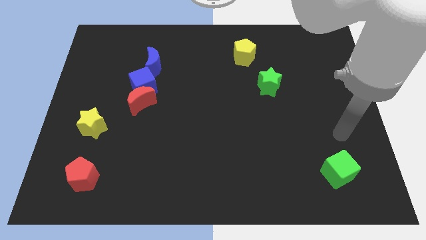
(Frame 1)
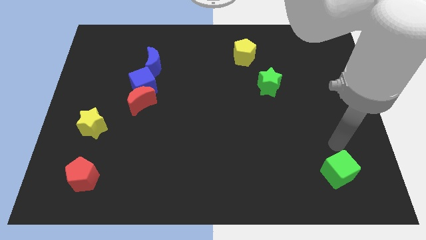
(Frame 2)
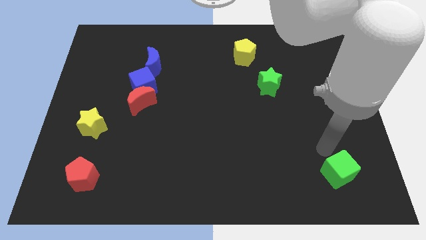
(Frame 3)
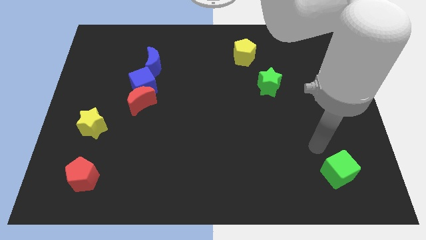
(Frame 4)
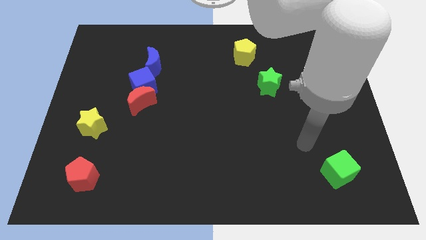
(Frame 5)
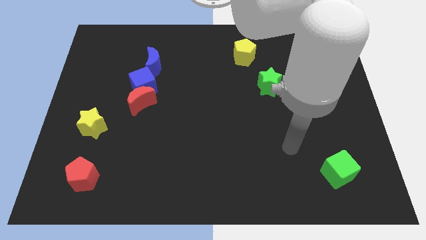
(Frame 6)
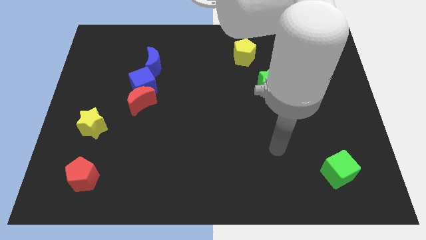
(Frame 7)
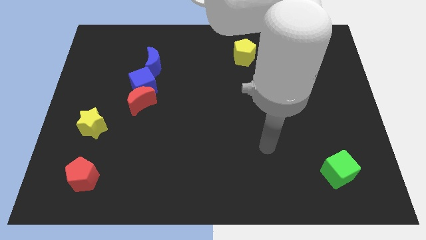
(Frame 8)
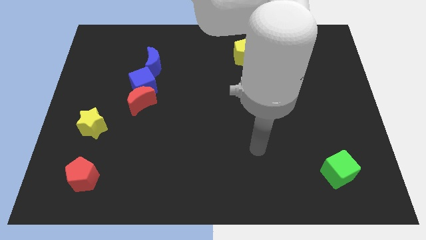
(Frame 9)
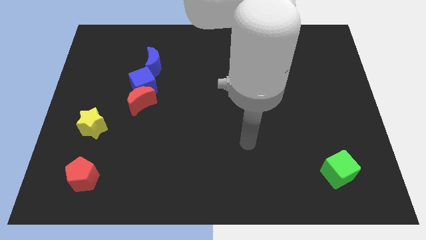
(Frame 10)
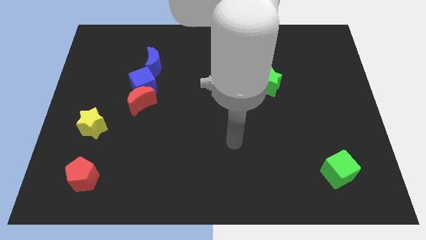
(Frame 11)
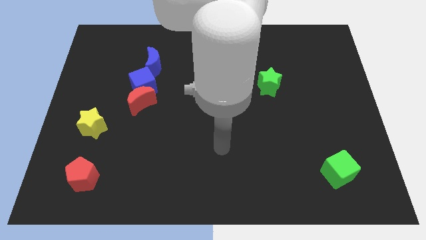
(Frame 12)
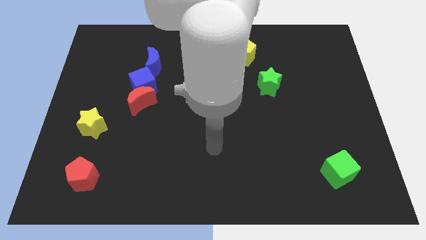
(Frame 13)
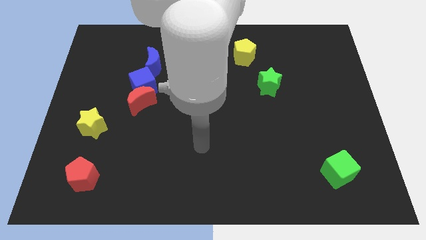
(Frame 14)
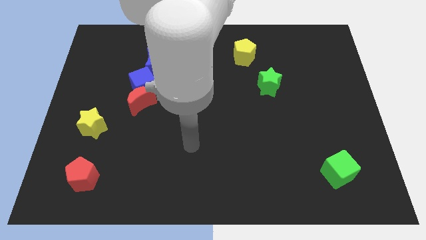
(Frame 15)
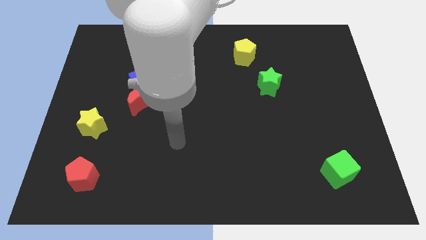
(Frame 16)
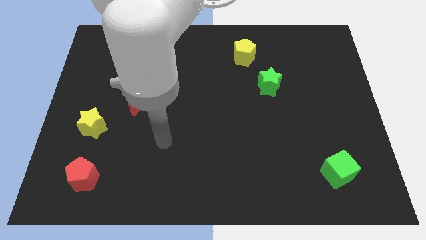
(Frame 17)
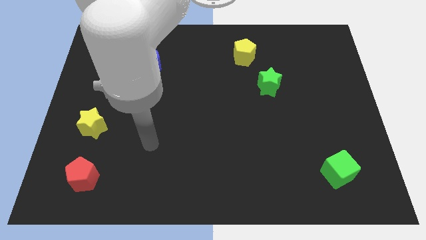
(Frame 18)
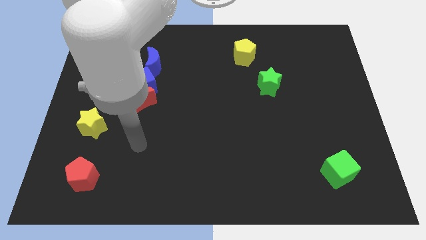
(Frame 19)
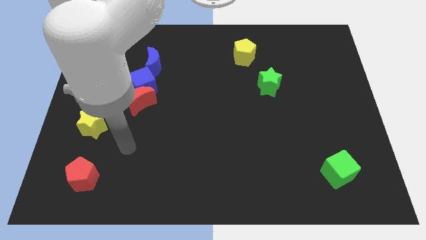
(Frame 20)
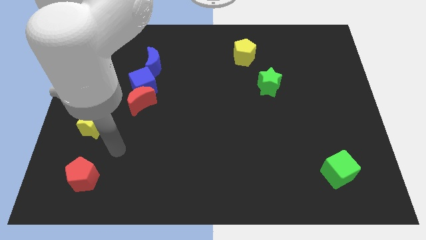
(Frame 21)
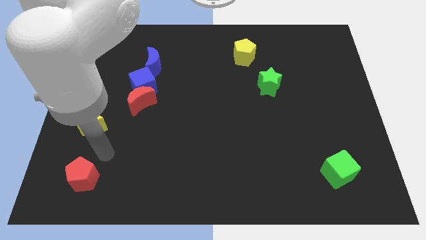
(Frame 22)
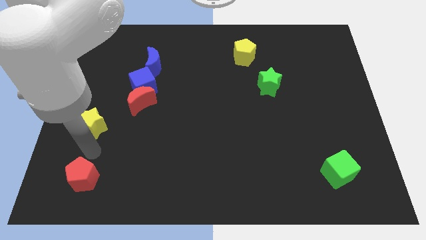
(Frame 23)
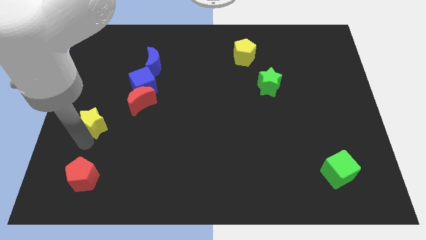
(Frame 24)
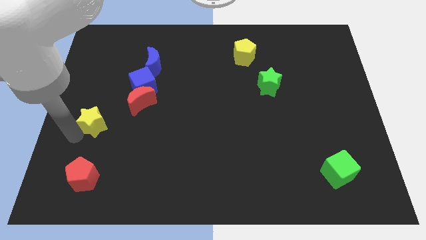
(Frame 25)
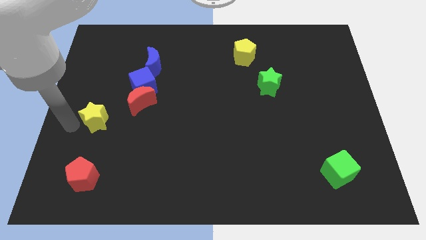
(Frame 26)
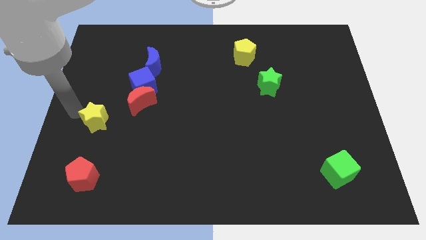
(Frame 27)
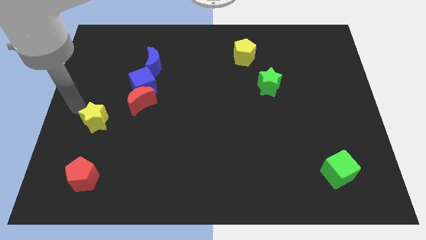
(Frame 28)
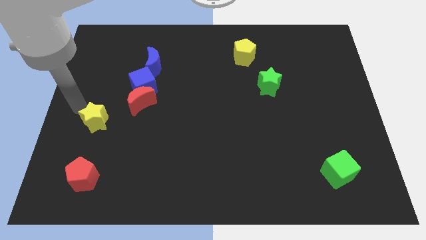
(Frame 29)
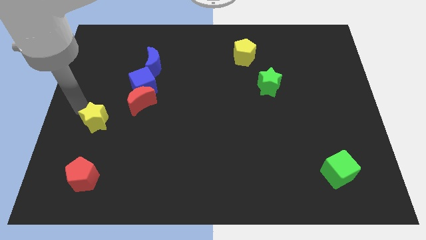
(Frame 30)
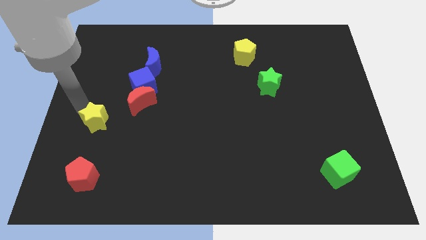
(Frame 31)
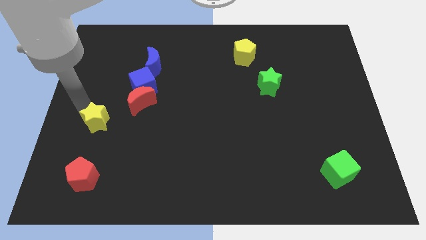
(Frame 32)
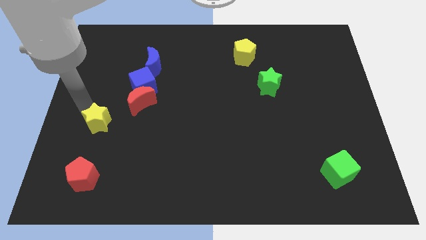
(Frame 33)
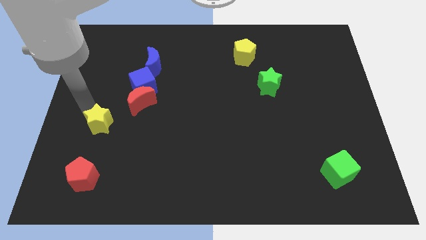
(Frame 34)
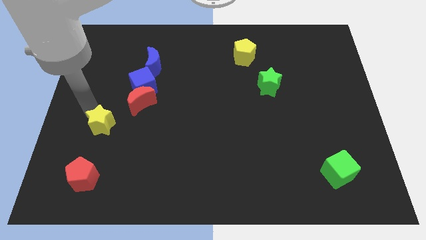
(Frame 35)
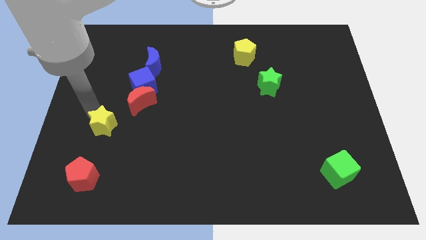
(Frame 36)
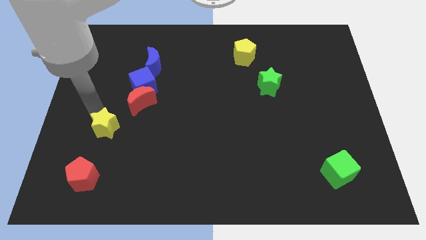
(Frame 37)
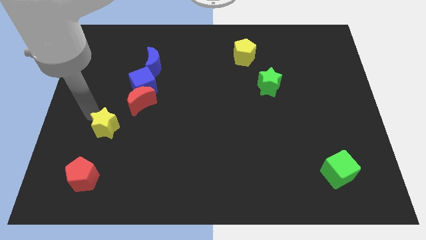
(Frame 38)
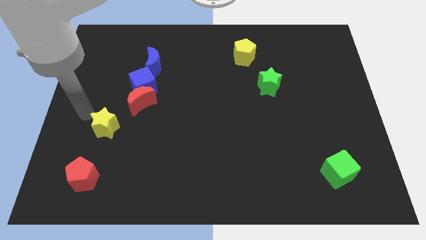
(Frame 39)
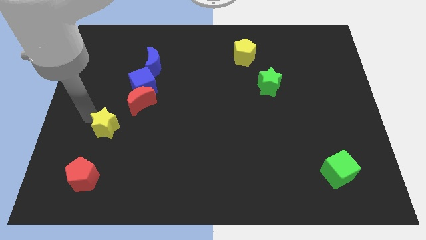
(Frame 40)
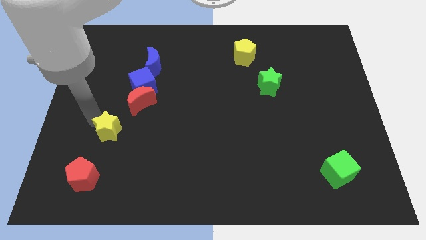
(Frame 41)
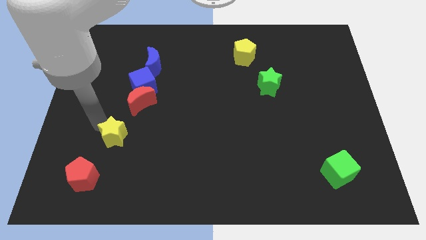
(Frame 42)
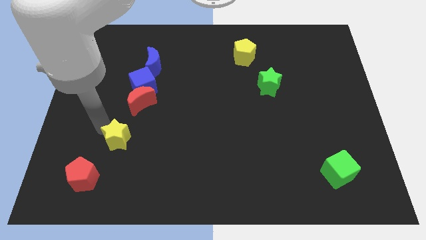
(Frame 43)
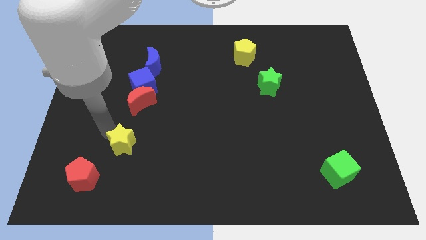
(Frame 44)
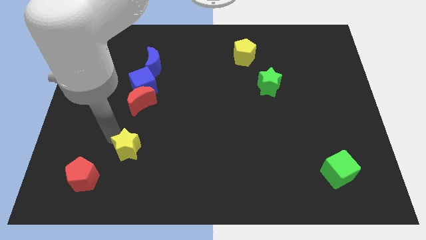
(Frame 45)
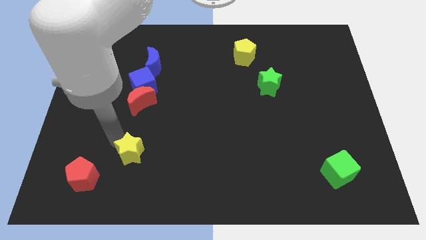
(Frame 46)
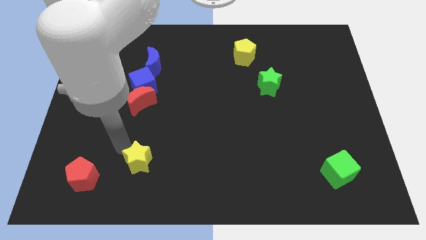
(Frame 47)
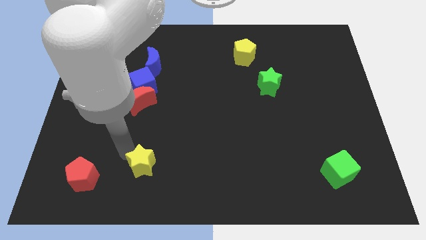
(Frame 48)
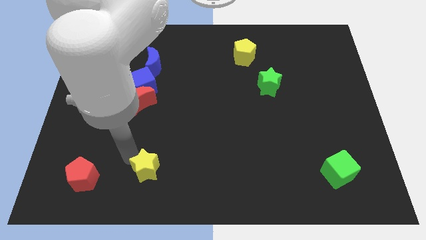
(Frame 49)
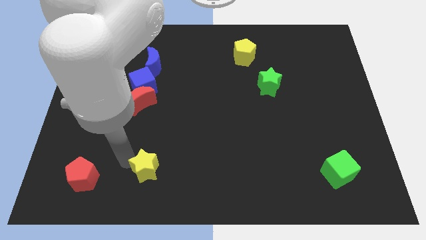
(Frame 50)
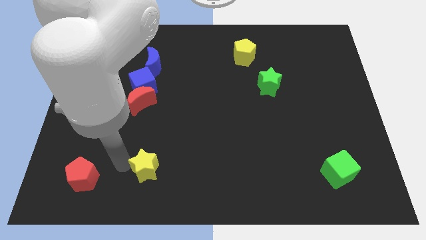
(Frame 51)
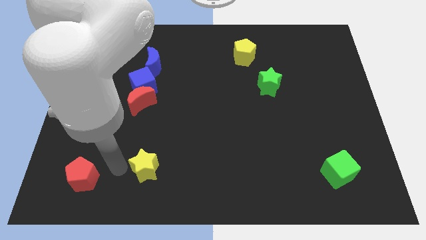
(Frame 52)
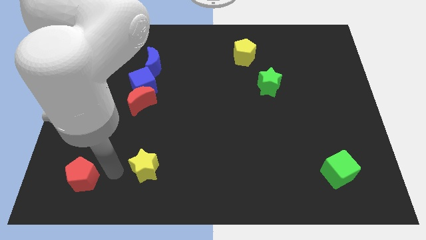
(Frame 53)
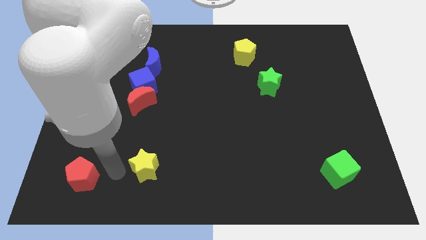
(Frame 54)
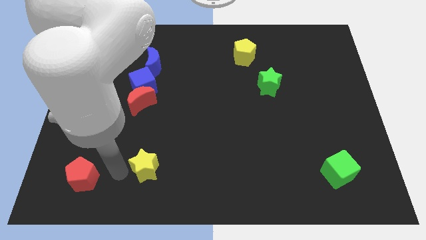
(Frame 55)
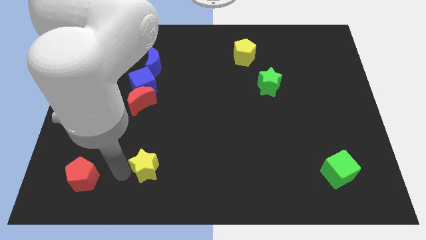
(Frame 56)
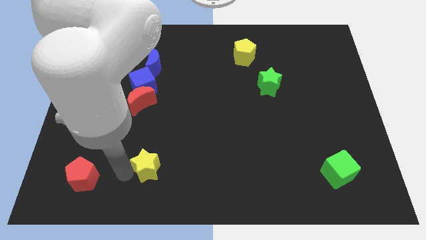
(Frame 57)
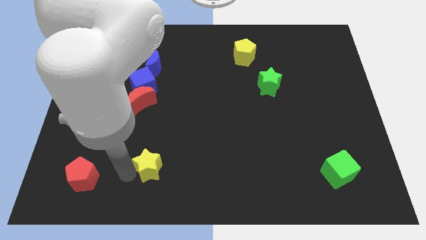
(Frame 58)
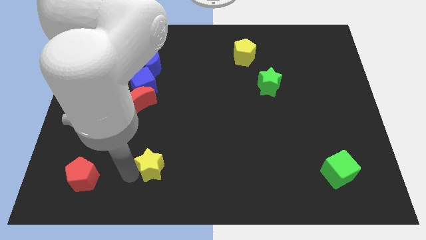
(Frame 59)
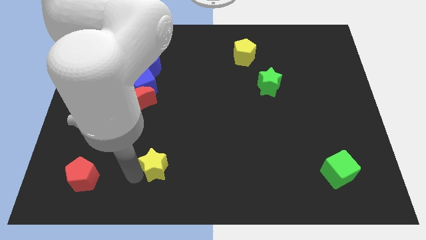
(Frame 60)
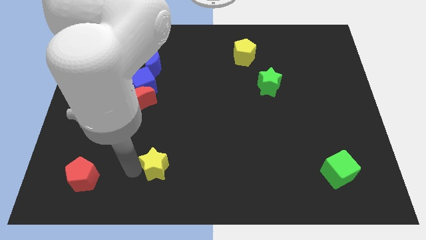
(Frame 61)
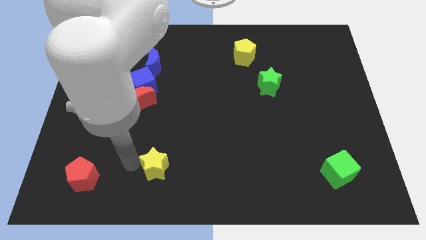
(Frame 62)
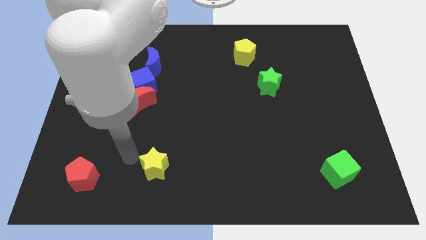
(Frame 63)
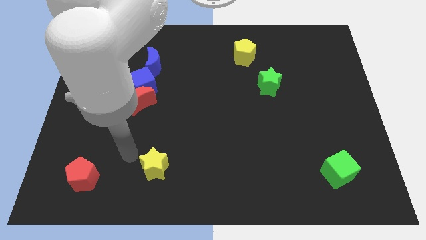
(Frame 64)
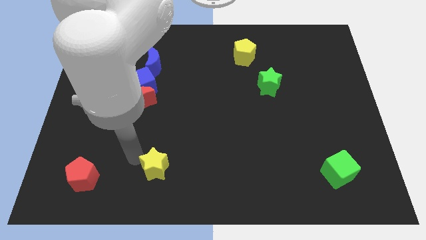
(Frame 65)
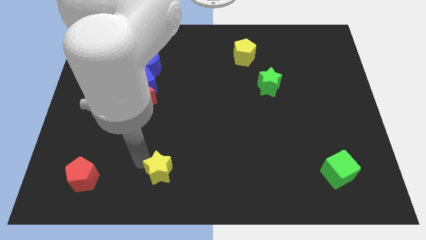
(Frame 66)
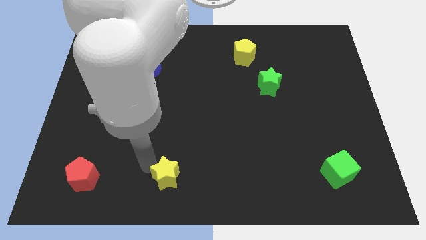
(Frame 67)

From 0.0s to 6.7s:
put the yellow star to the bottom side
